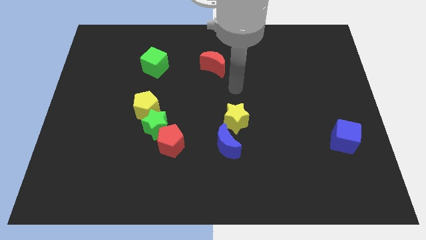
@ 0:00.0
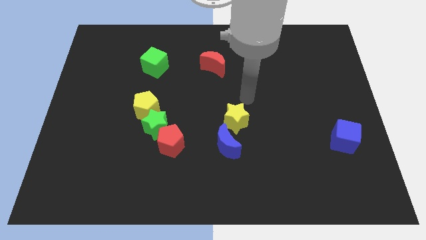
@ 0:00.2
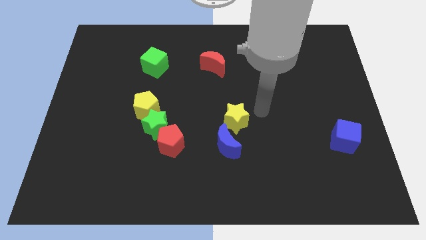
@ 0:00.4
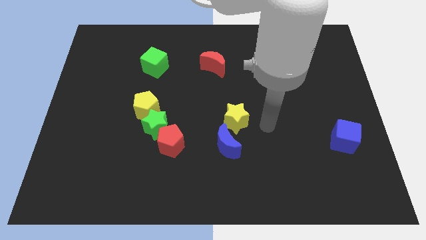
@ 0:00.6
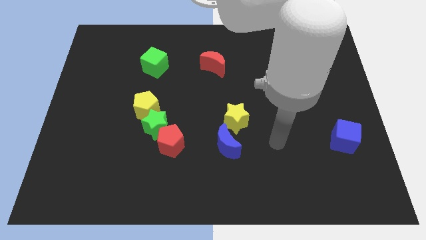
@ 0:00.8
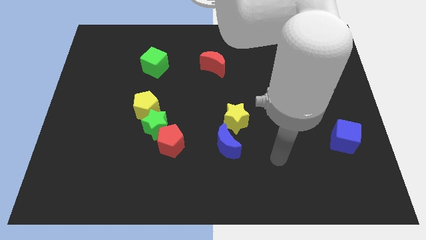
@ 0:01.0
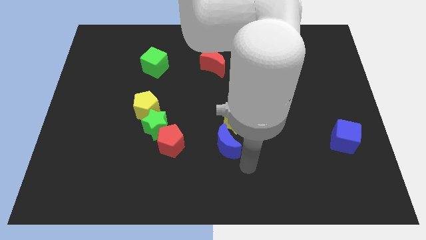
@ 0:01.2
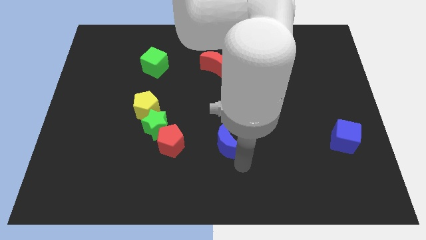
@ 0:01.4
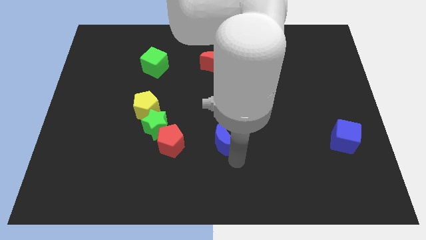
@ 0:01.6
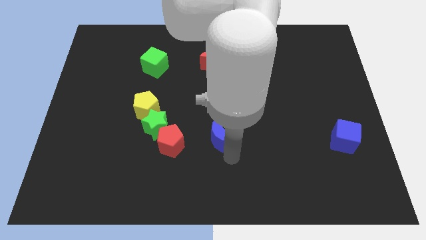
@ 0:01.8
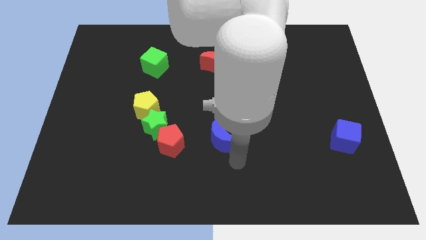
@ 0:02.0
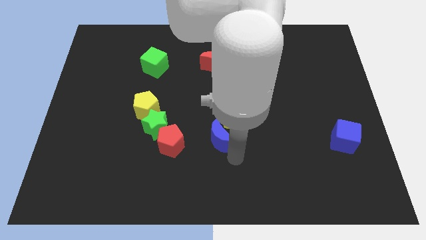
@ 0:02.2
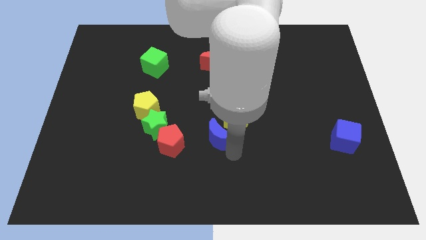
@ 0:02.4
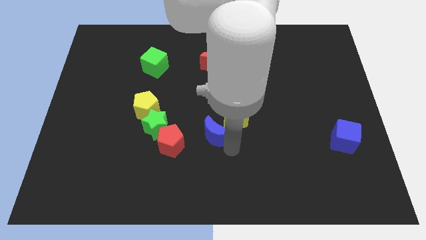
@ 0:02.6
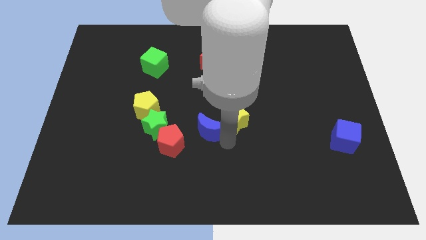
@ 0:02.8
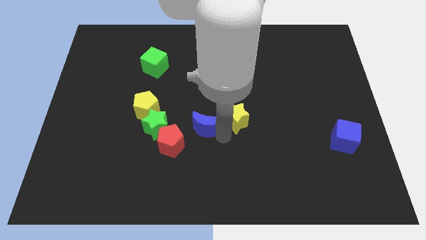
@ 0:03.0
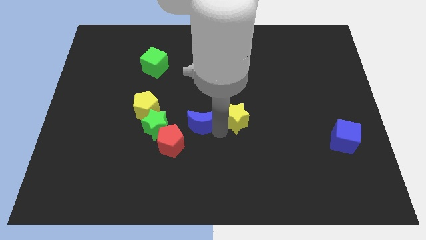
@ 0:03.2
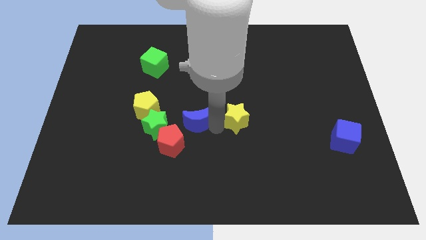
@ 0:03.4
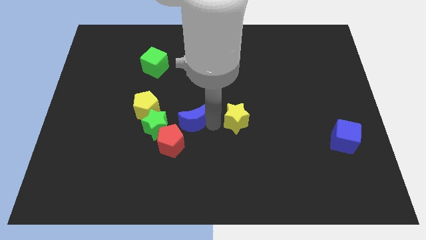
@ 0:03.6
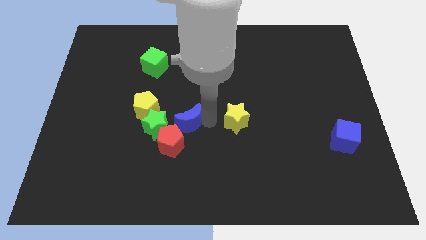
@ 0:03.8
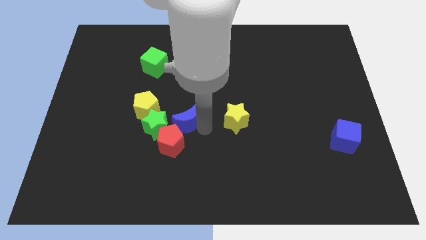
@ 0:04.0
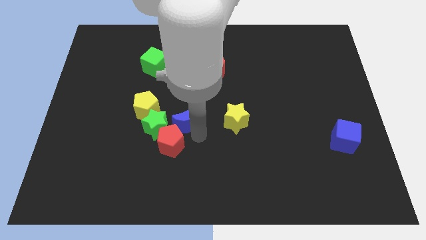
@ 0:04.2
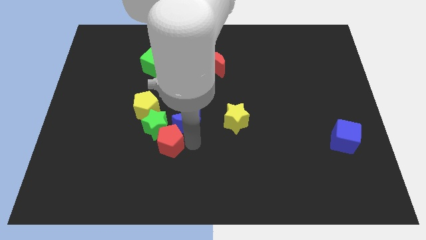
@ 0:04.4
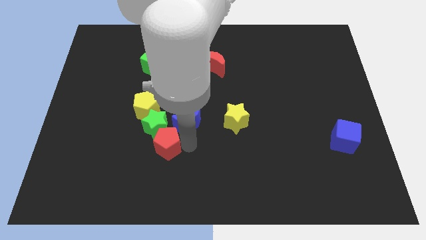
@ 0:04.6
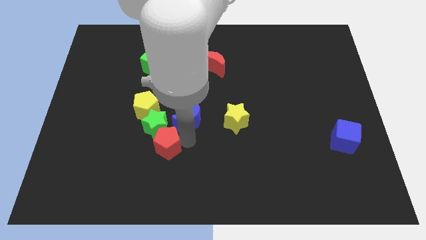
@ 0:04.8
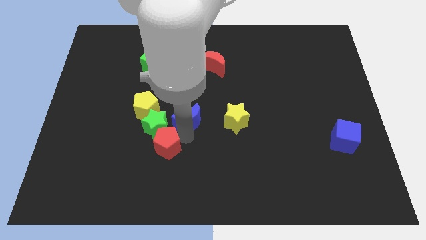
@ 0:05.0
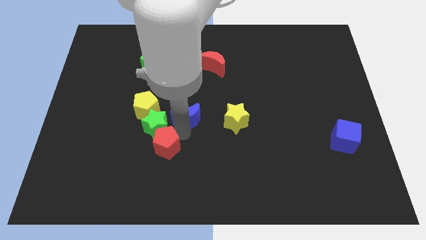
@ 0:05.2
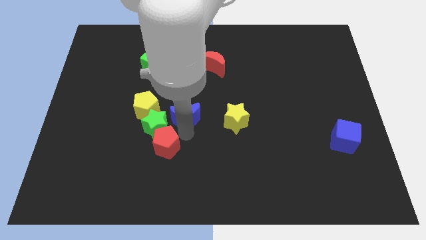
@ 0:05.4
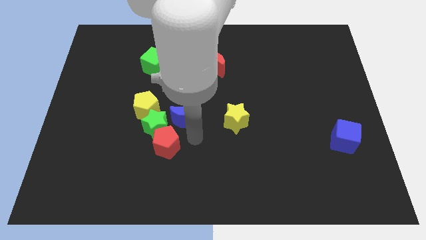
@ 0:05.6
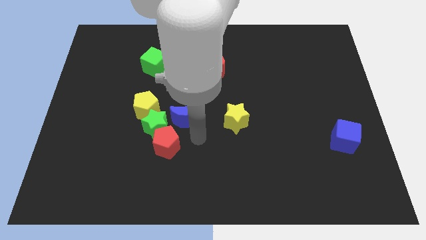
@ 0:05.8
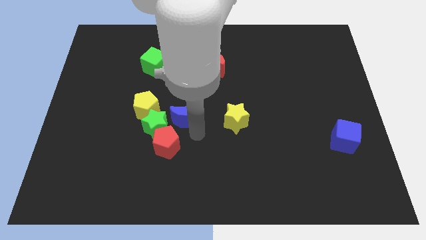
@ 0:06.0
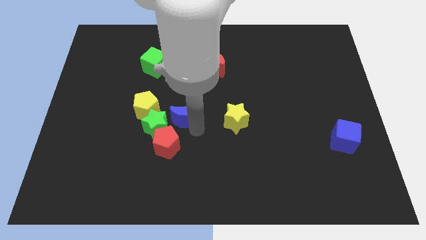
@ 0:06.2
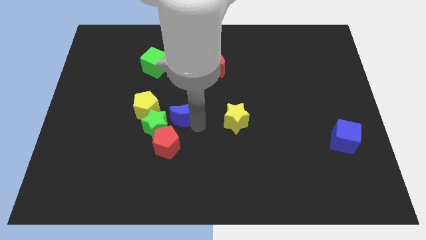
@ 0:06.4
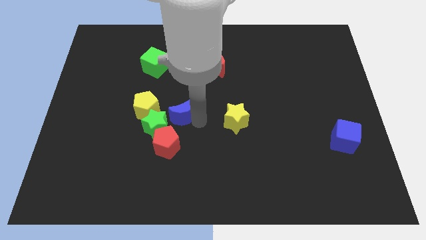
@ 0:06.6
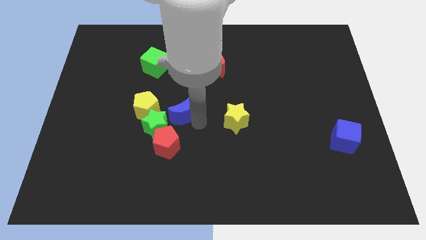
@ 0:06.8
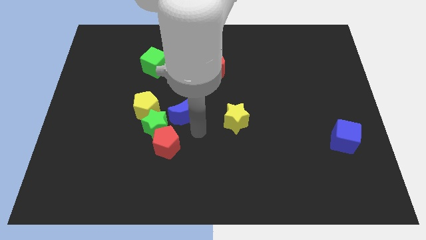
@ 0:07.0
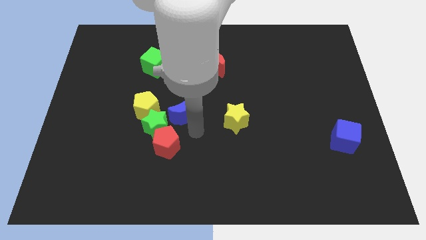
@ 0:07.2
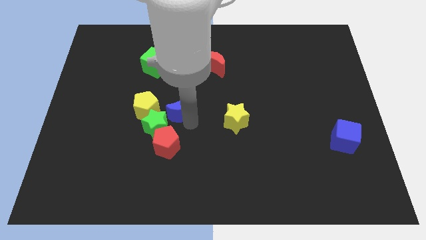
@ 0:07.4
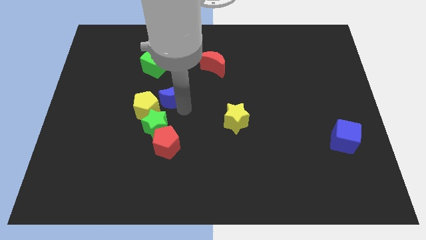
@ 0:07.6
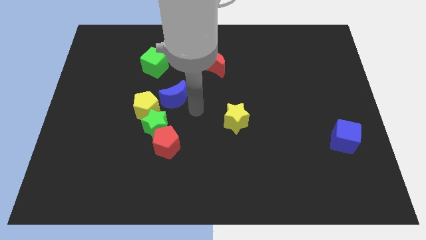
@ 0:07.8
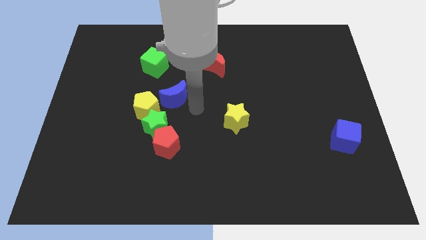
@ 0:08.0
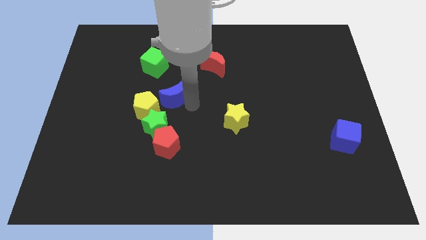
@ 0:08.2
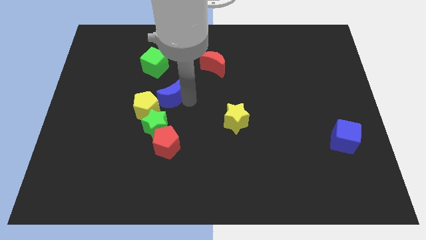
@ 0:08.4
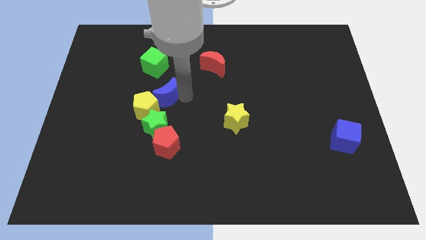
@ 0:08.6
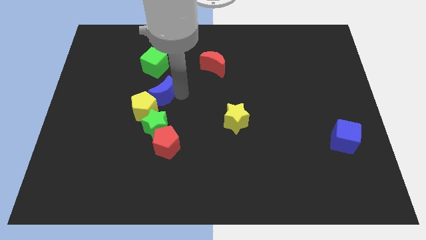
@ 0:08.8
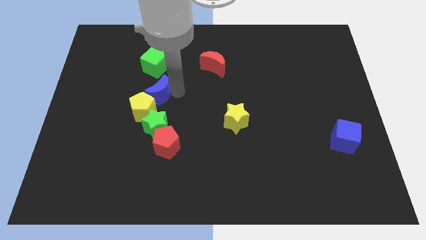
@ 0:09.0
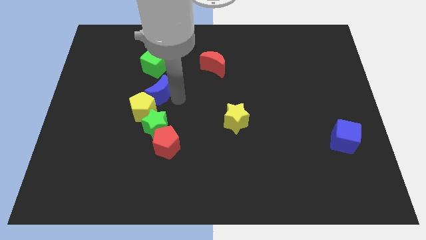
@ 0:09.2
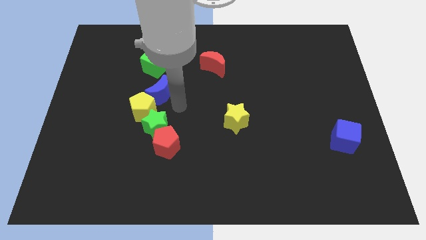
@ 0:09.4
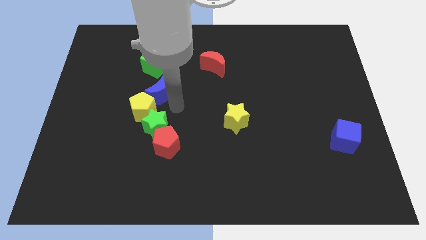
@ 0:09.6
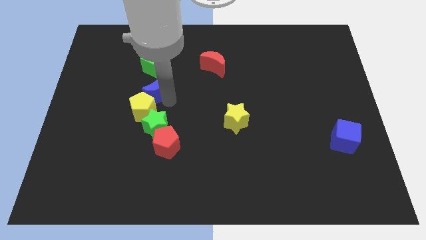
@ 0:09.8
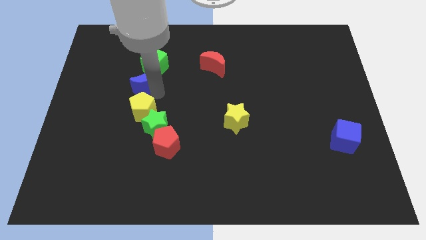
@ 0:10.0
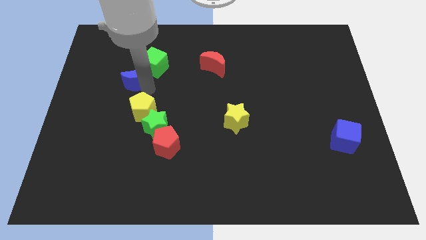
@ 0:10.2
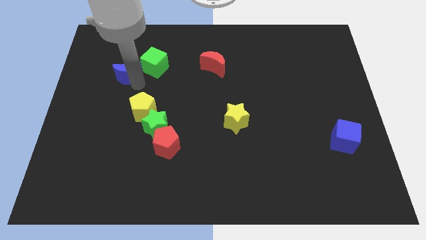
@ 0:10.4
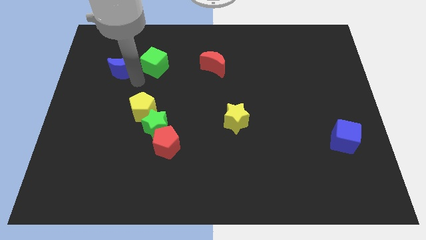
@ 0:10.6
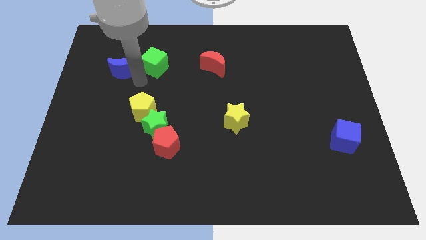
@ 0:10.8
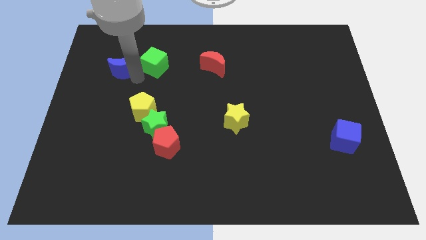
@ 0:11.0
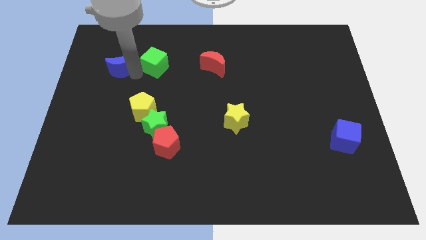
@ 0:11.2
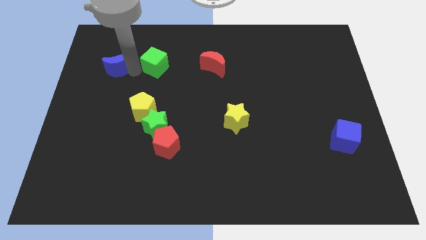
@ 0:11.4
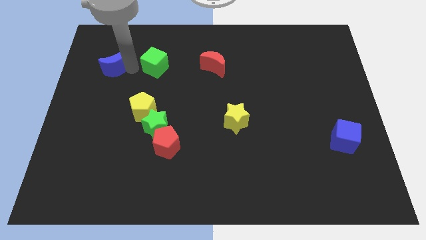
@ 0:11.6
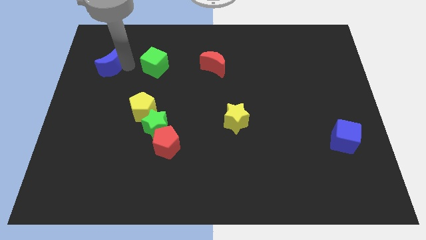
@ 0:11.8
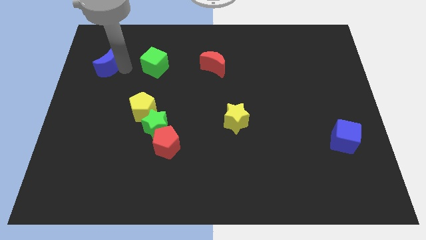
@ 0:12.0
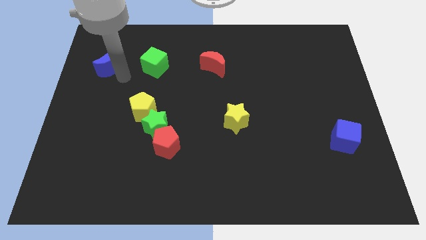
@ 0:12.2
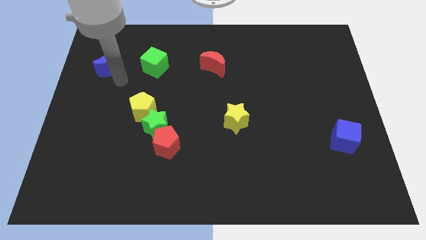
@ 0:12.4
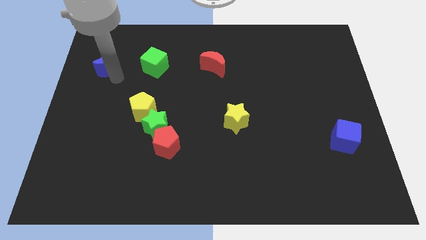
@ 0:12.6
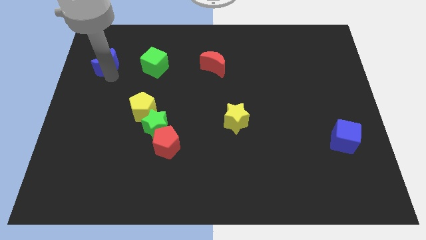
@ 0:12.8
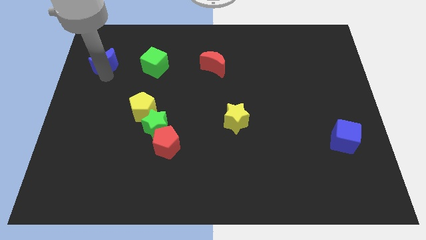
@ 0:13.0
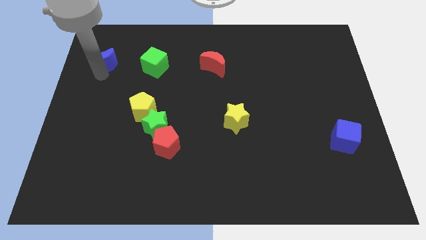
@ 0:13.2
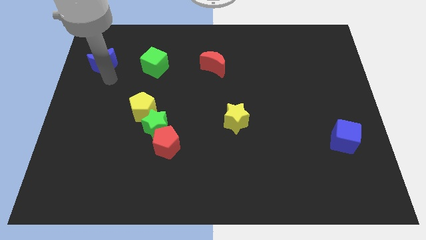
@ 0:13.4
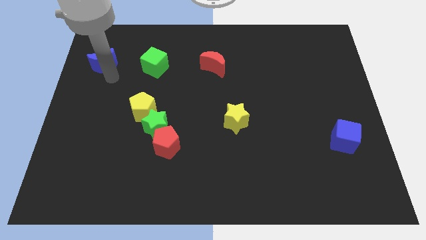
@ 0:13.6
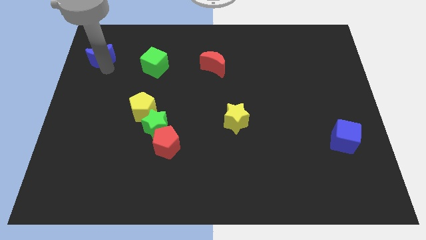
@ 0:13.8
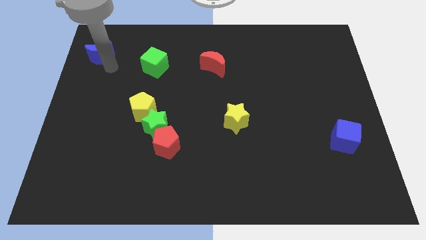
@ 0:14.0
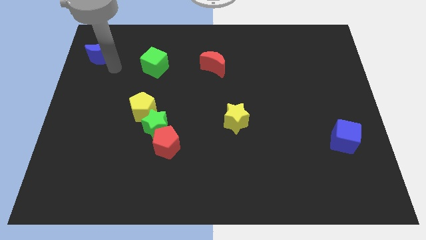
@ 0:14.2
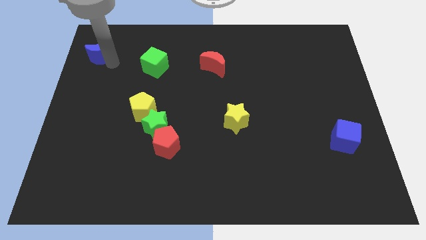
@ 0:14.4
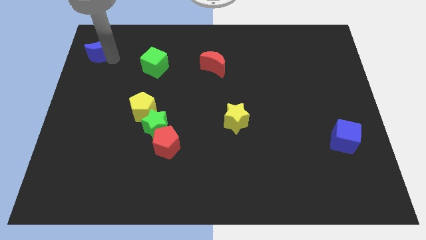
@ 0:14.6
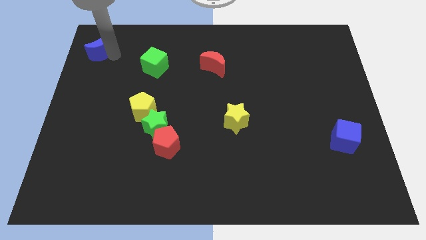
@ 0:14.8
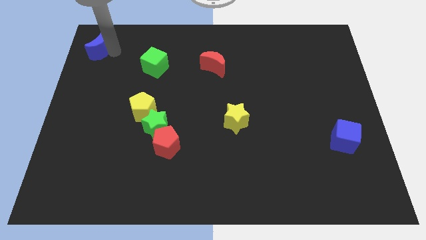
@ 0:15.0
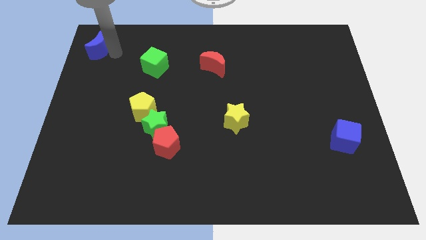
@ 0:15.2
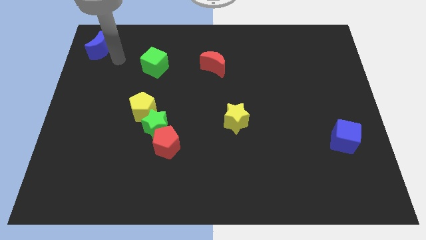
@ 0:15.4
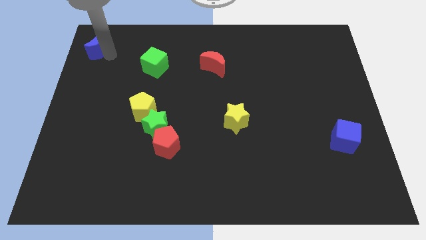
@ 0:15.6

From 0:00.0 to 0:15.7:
move the blue moon to the top left
